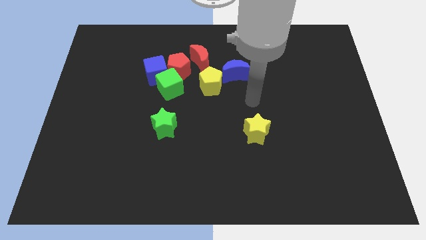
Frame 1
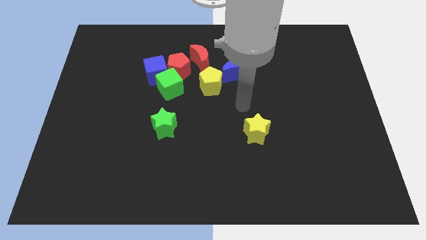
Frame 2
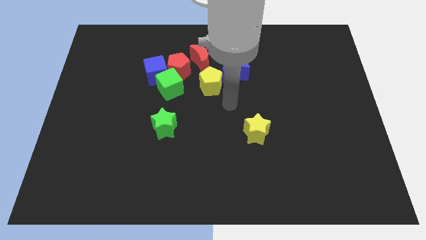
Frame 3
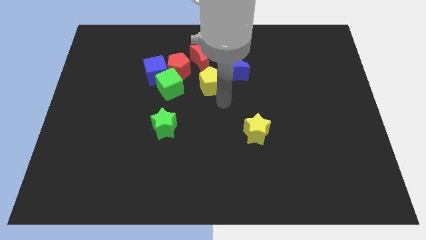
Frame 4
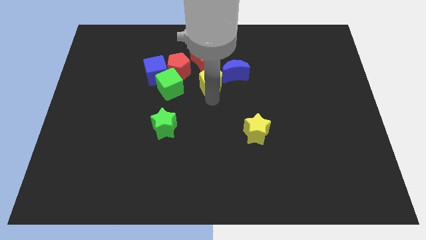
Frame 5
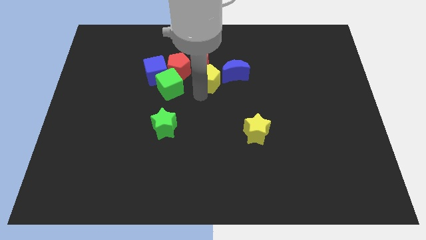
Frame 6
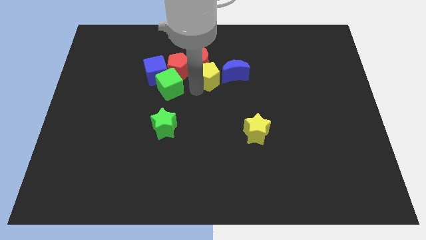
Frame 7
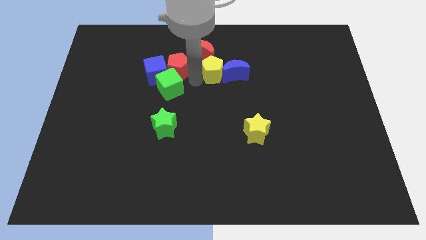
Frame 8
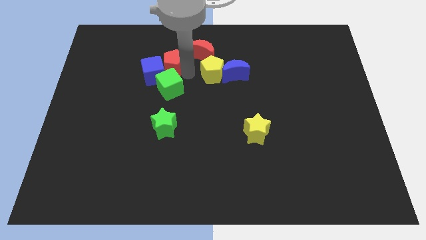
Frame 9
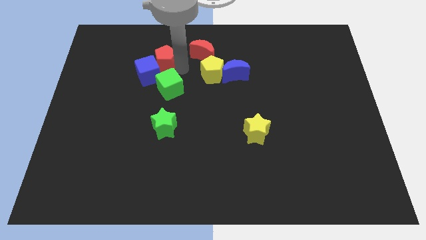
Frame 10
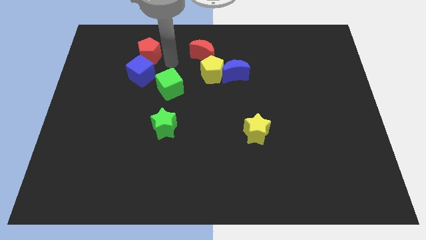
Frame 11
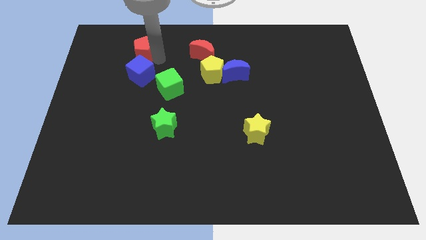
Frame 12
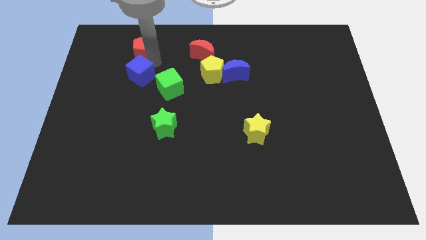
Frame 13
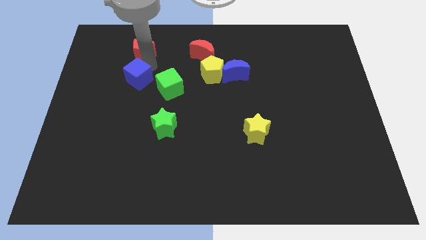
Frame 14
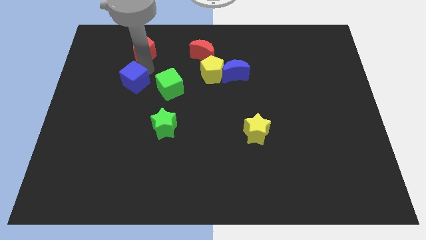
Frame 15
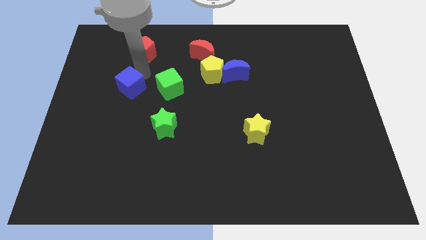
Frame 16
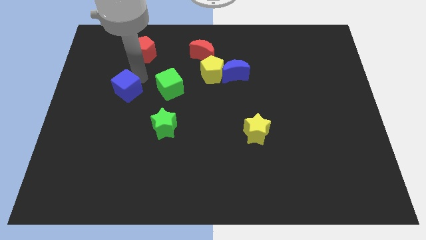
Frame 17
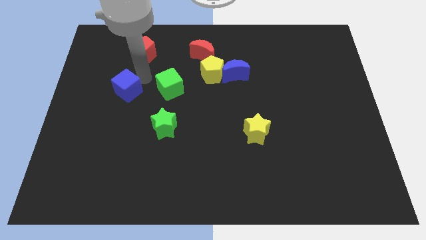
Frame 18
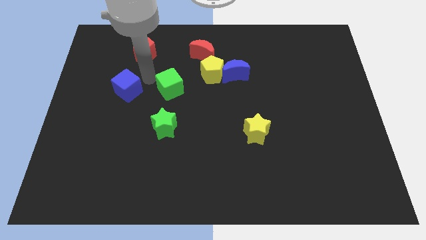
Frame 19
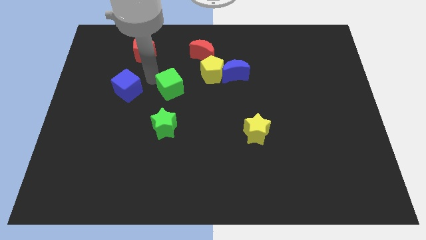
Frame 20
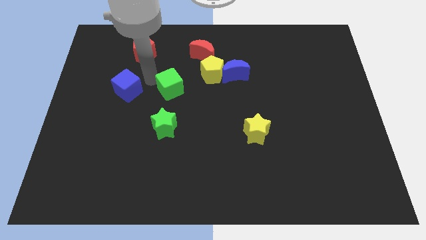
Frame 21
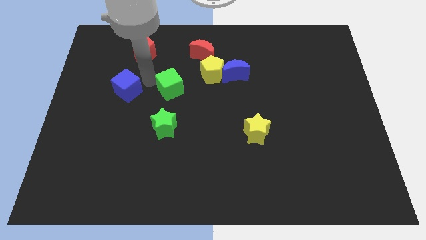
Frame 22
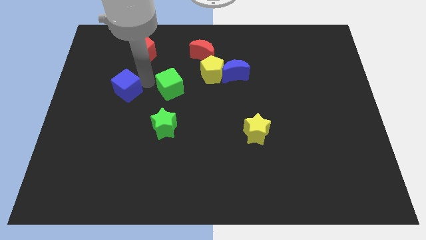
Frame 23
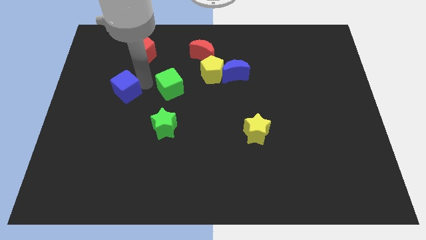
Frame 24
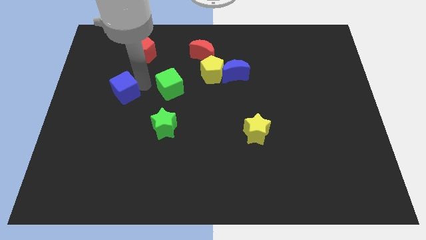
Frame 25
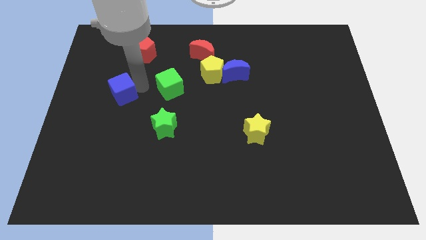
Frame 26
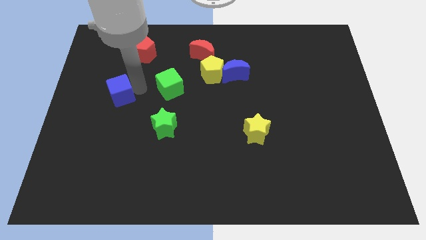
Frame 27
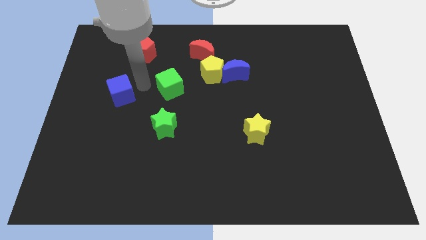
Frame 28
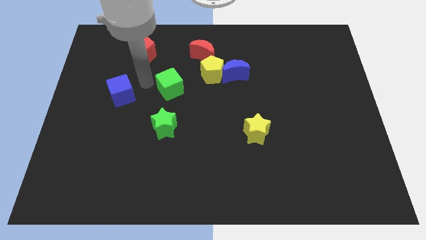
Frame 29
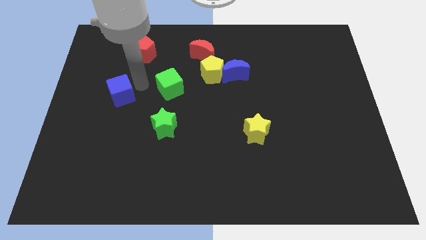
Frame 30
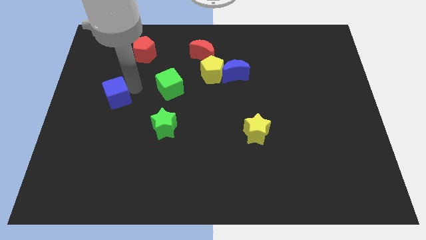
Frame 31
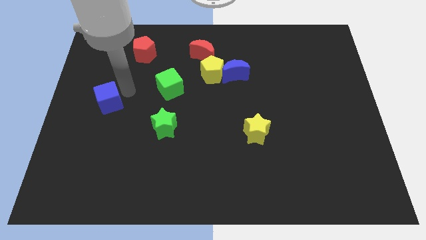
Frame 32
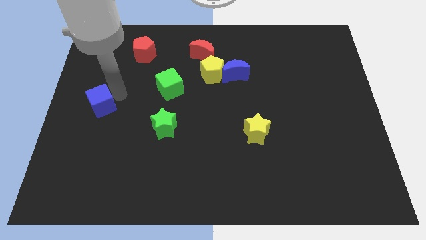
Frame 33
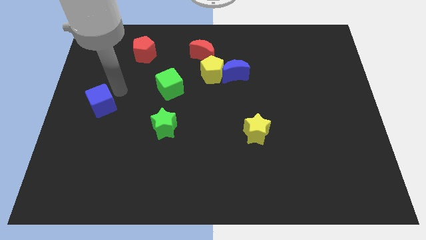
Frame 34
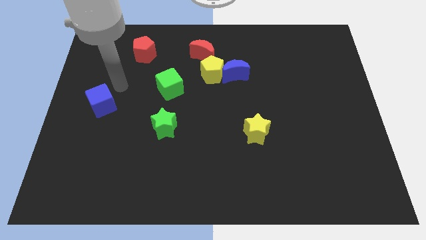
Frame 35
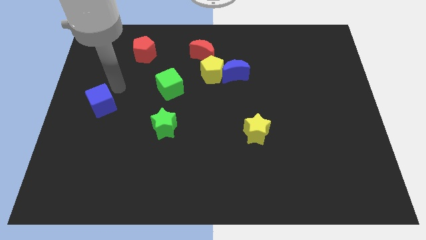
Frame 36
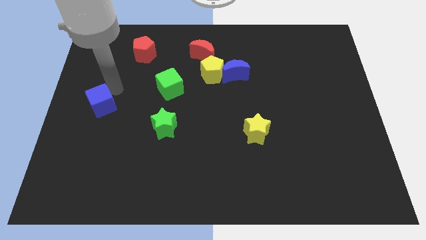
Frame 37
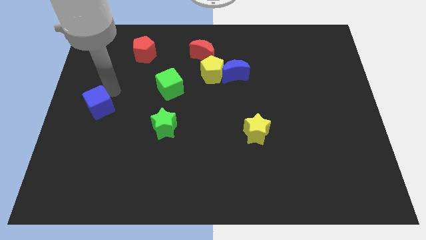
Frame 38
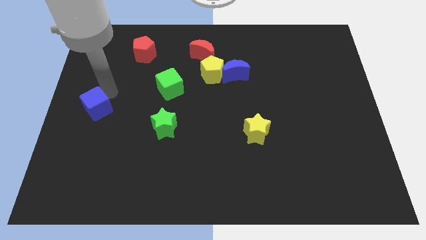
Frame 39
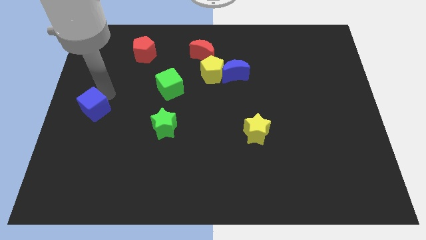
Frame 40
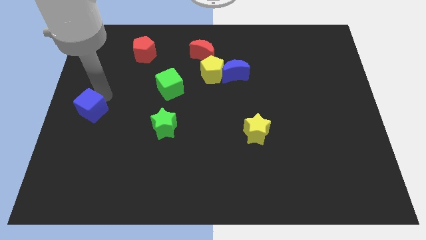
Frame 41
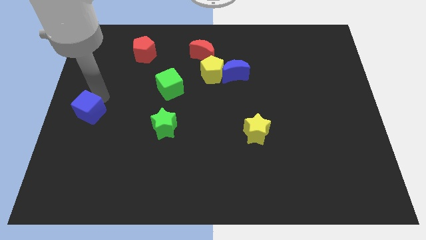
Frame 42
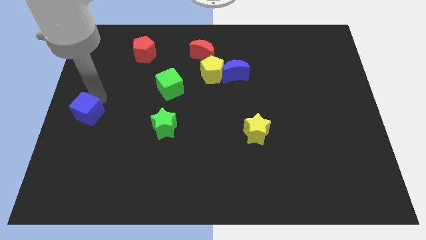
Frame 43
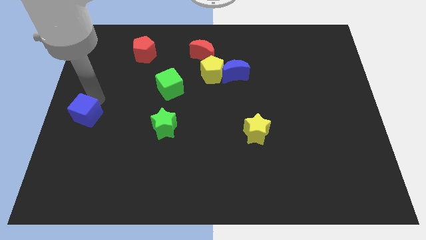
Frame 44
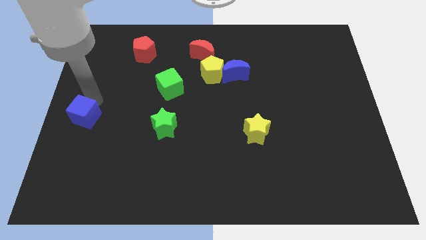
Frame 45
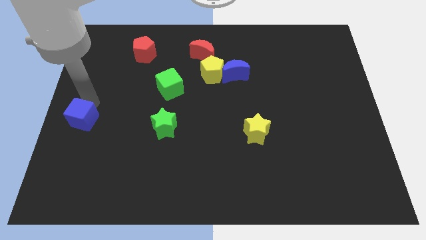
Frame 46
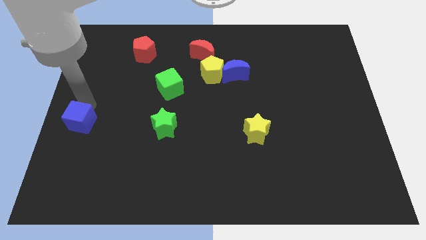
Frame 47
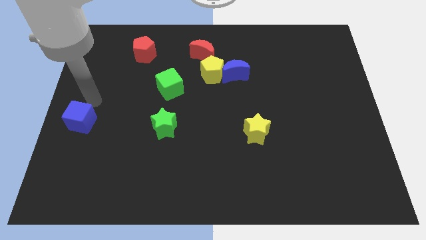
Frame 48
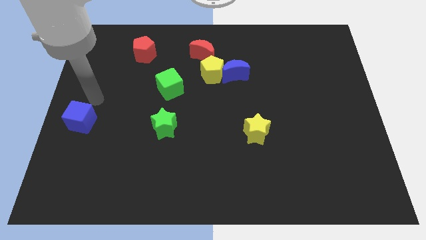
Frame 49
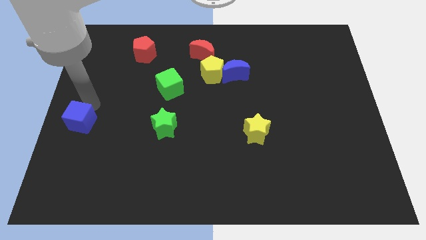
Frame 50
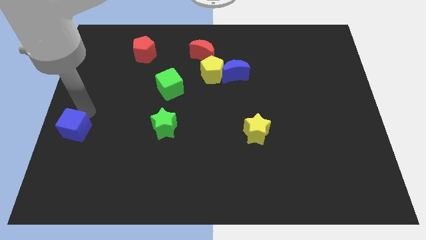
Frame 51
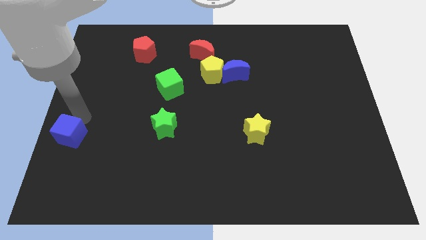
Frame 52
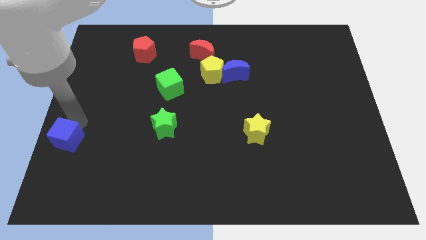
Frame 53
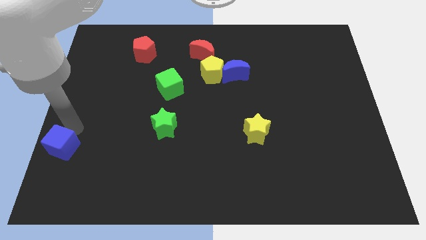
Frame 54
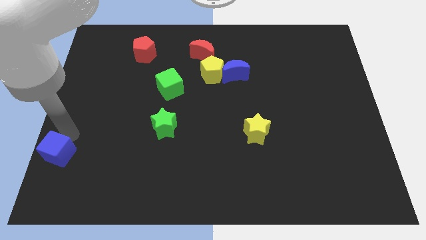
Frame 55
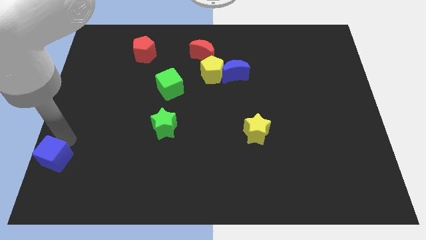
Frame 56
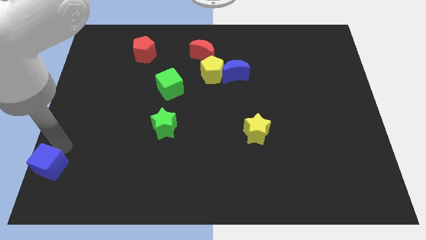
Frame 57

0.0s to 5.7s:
move the blue cube to the lower left corner

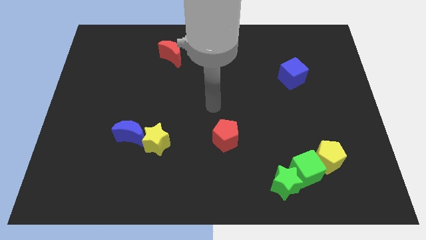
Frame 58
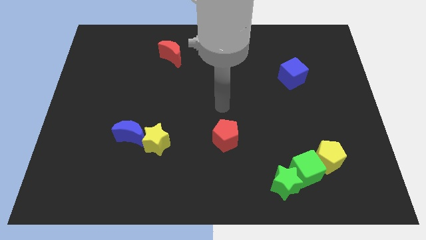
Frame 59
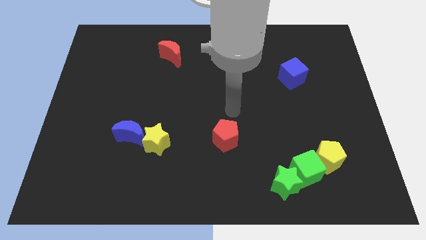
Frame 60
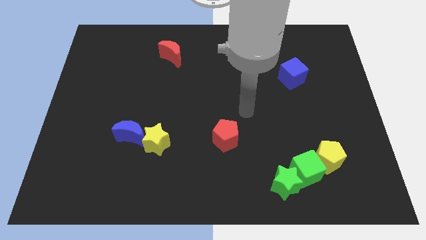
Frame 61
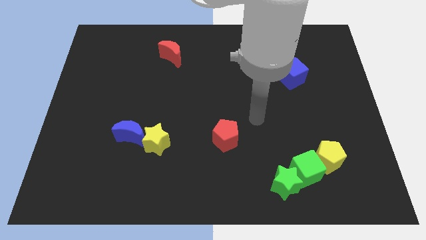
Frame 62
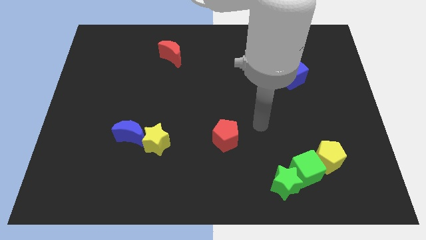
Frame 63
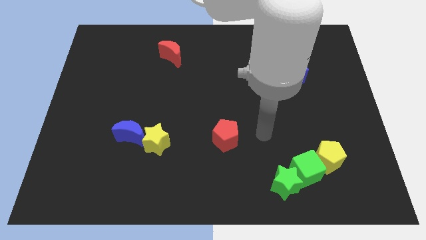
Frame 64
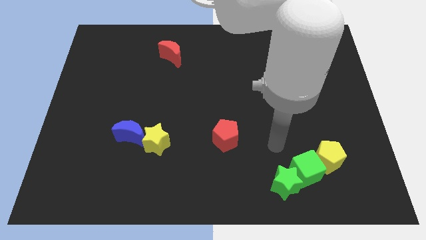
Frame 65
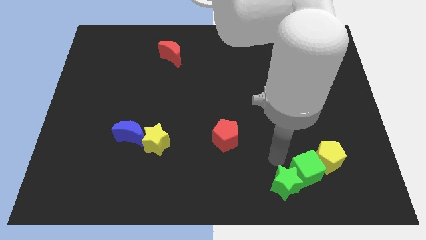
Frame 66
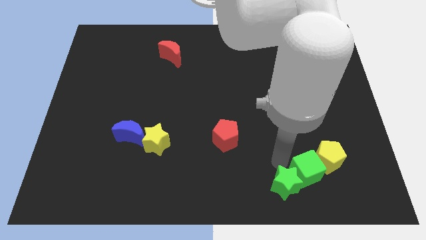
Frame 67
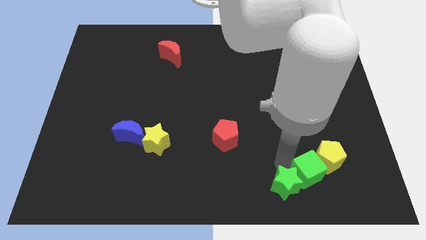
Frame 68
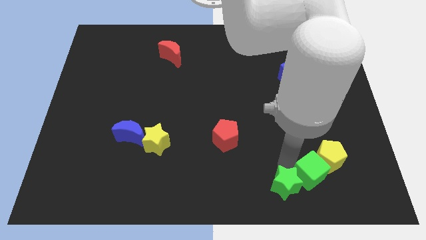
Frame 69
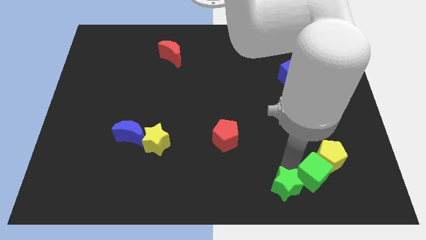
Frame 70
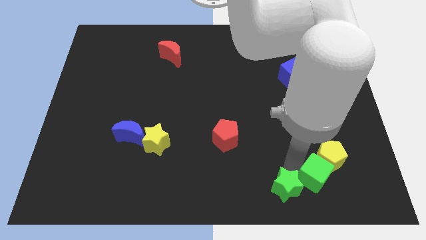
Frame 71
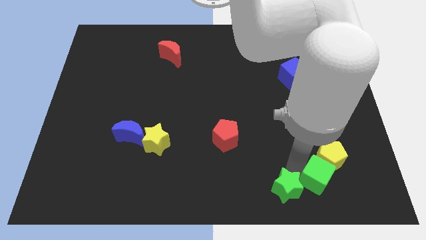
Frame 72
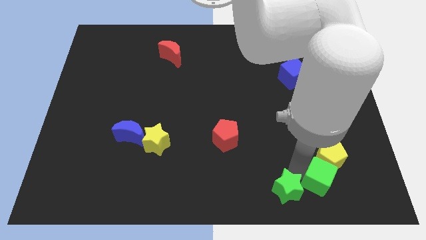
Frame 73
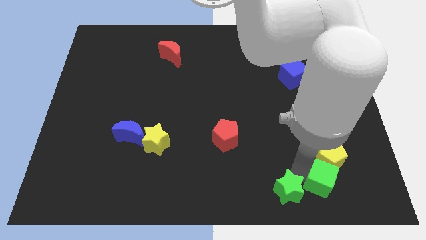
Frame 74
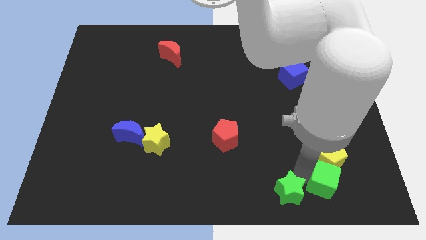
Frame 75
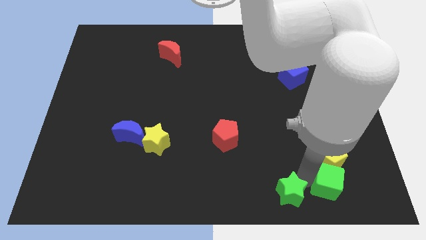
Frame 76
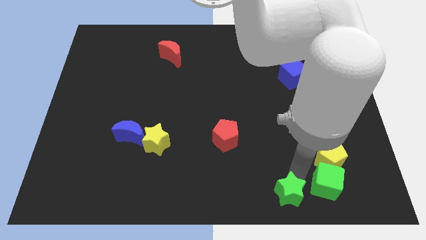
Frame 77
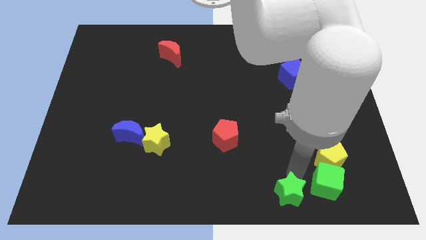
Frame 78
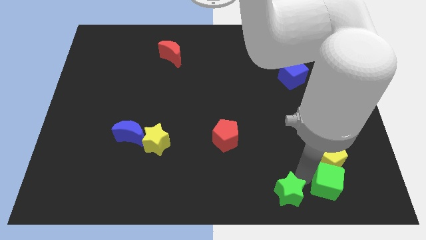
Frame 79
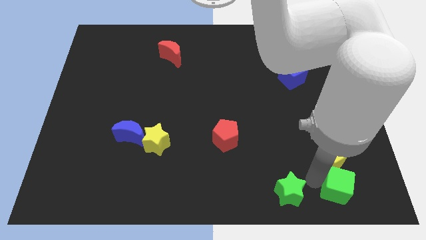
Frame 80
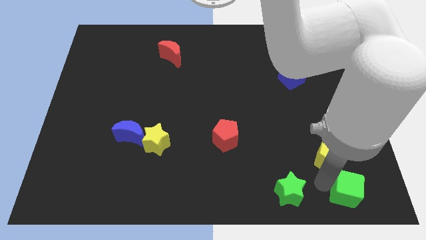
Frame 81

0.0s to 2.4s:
push the green cube to the bottom right
